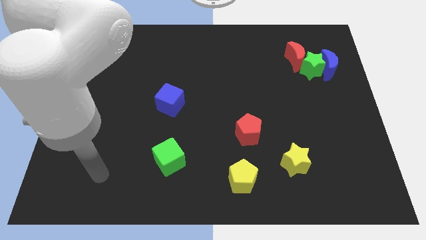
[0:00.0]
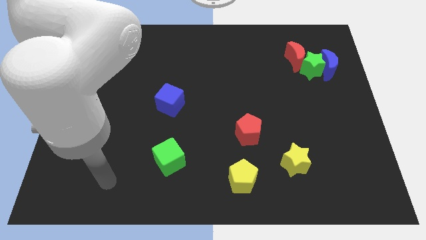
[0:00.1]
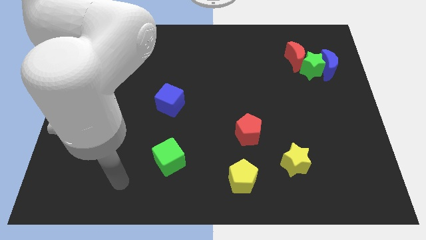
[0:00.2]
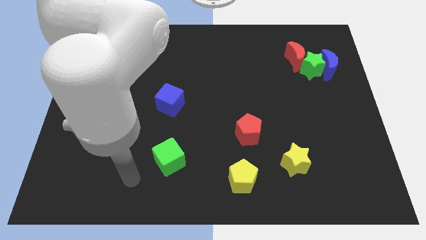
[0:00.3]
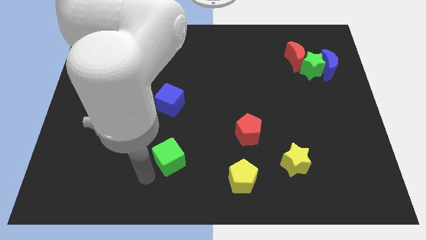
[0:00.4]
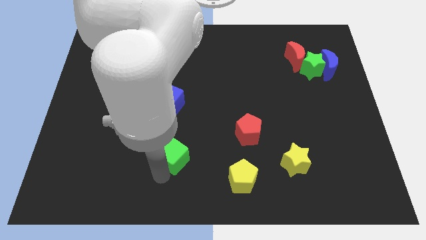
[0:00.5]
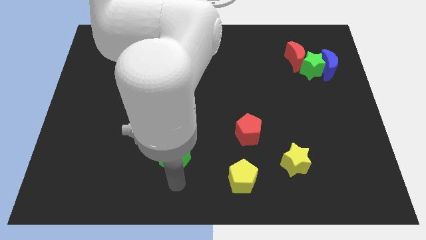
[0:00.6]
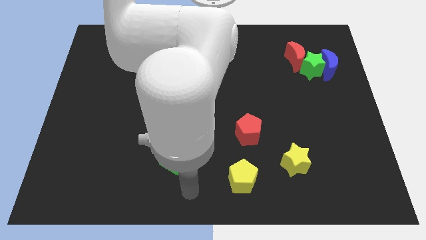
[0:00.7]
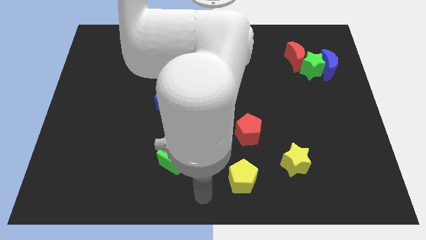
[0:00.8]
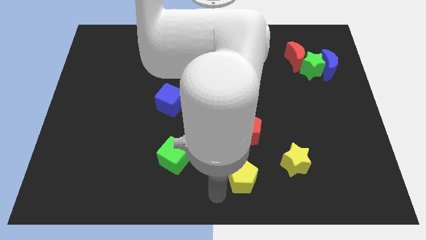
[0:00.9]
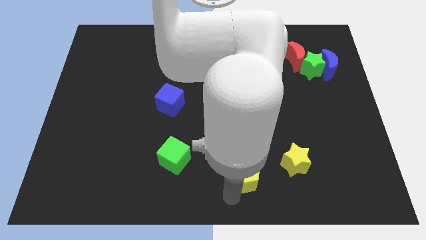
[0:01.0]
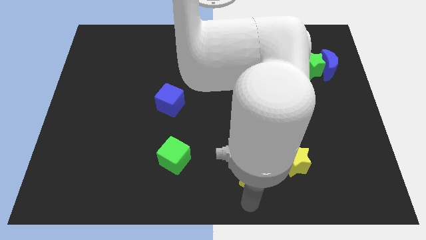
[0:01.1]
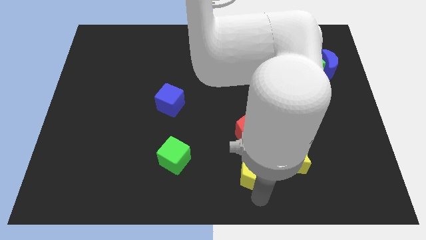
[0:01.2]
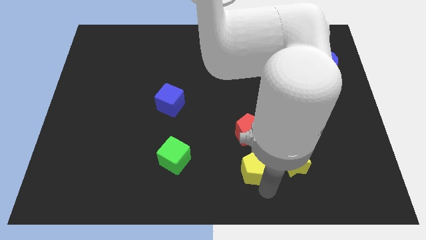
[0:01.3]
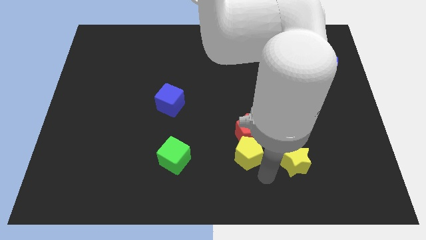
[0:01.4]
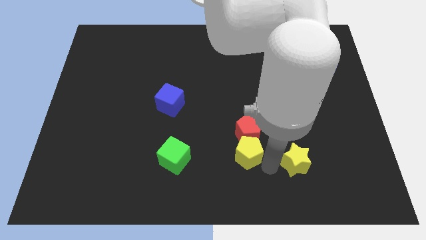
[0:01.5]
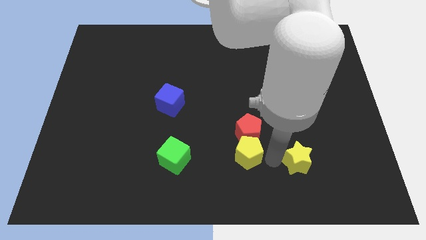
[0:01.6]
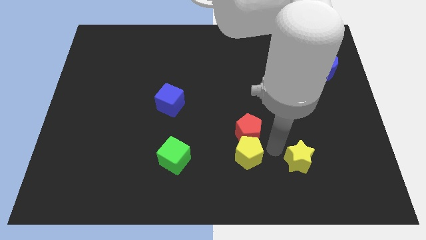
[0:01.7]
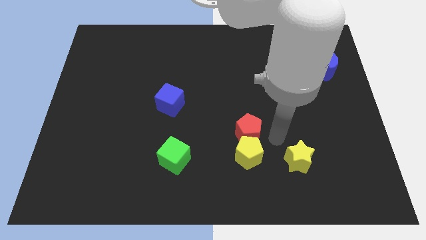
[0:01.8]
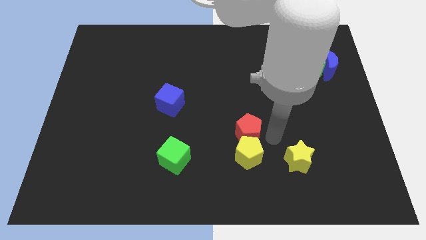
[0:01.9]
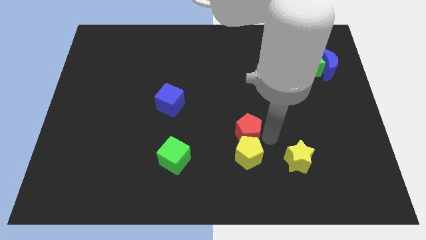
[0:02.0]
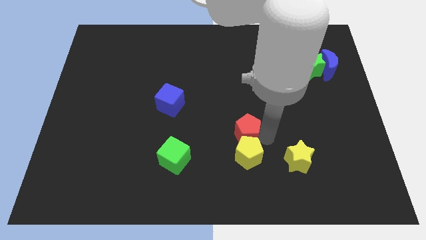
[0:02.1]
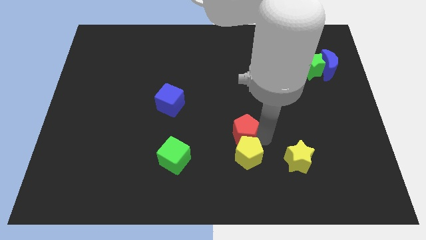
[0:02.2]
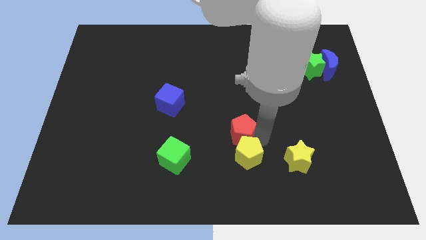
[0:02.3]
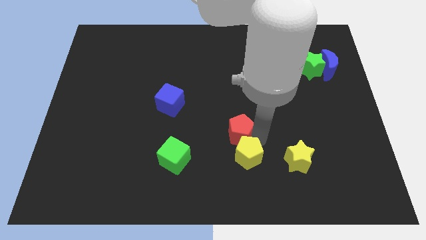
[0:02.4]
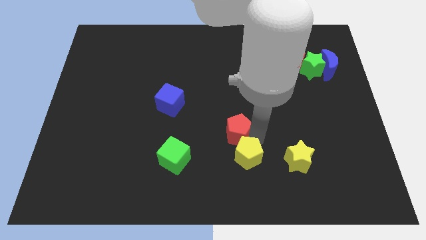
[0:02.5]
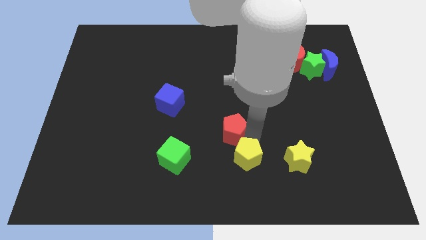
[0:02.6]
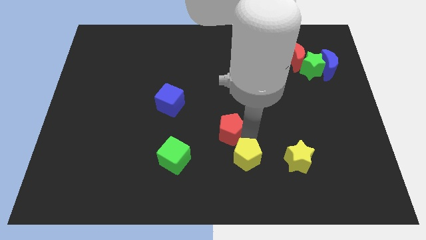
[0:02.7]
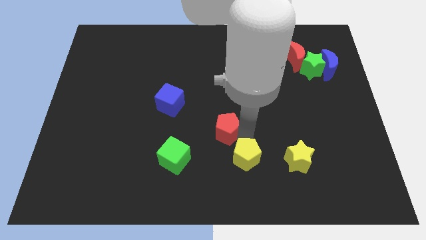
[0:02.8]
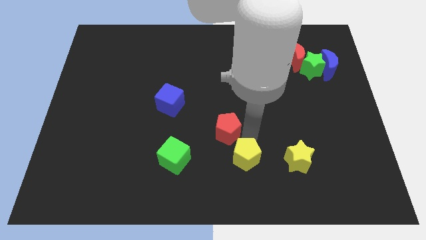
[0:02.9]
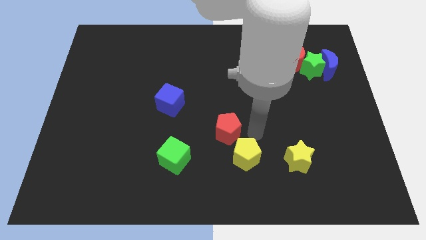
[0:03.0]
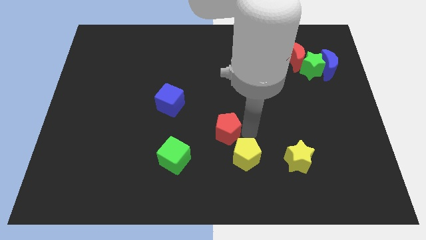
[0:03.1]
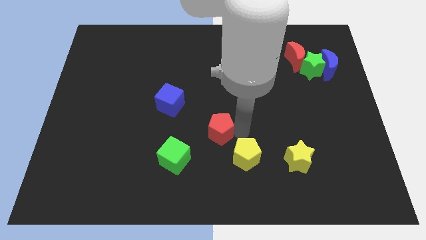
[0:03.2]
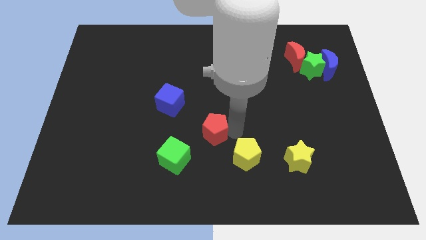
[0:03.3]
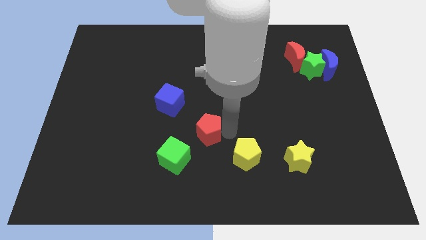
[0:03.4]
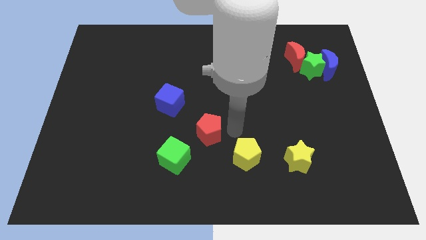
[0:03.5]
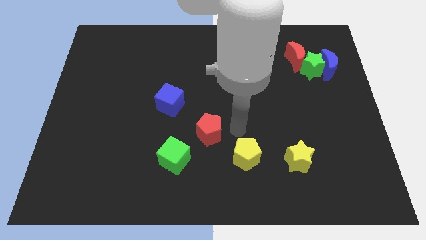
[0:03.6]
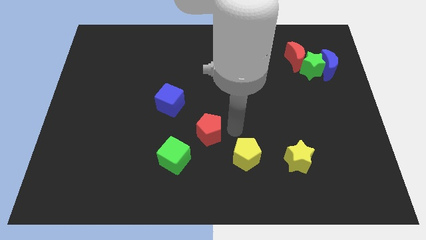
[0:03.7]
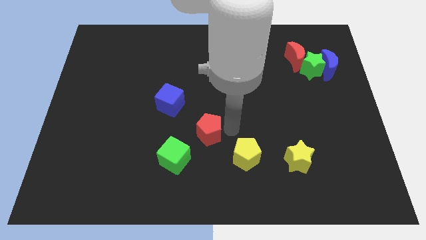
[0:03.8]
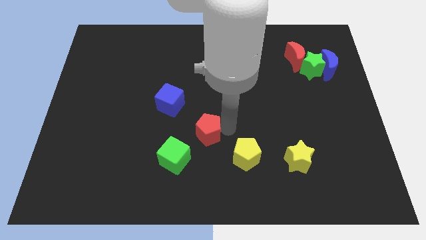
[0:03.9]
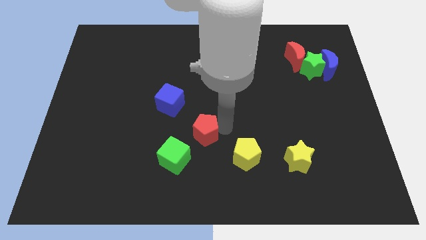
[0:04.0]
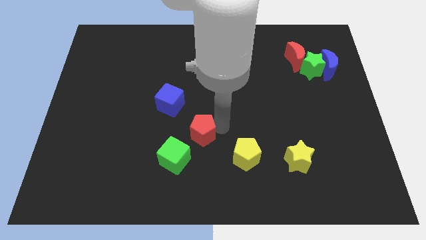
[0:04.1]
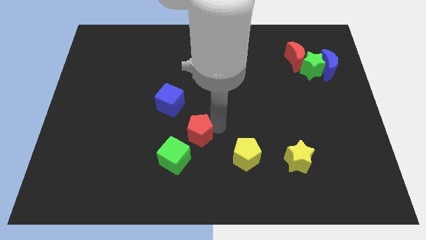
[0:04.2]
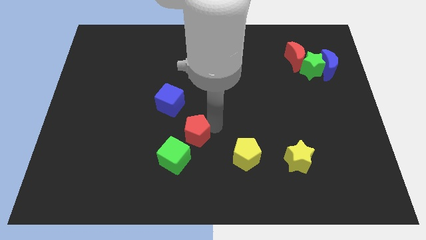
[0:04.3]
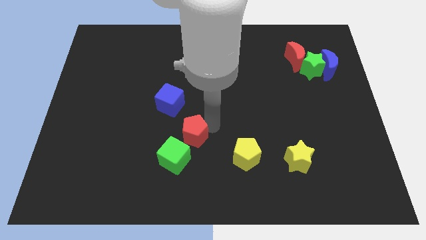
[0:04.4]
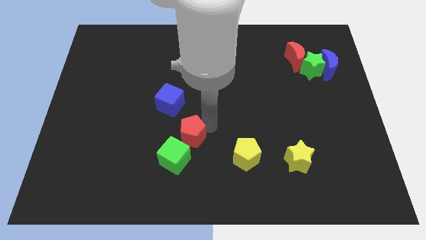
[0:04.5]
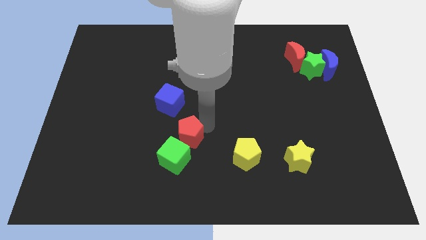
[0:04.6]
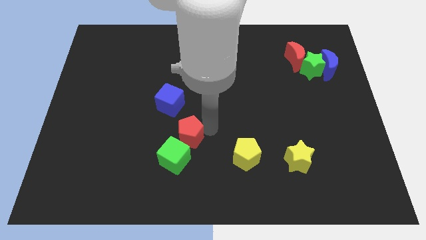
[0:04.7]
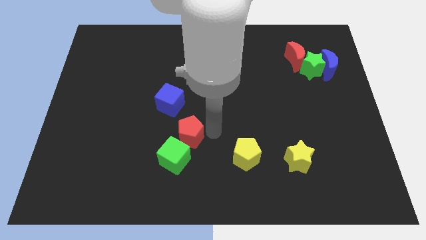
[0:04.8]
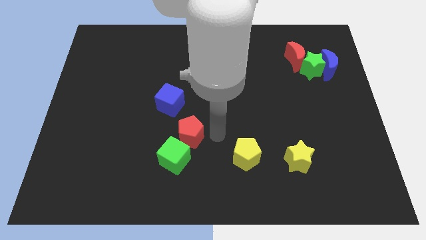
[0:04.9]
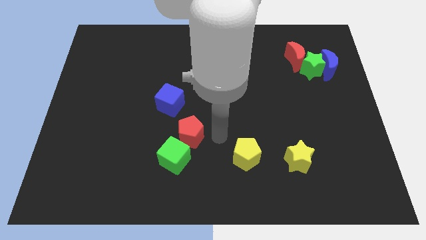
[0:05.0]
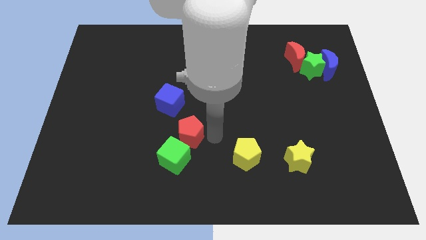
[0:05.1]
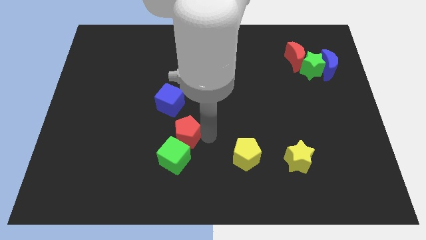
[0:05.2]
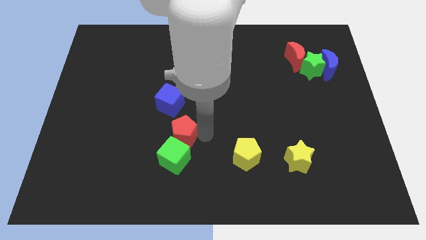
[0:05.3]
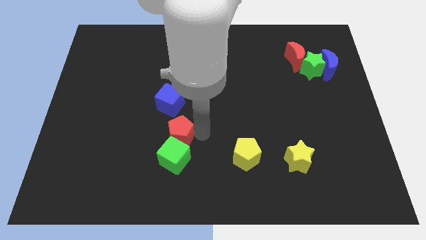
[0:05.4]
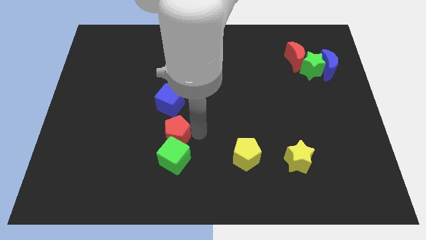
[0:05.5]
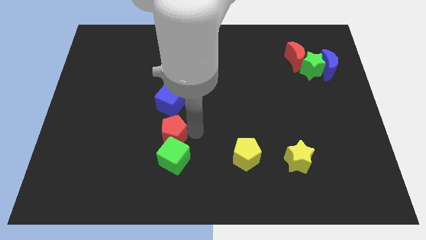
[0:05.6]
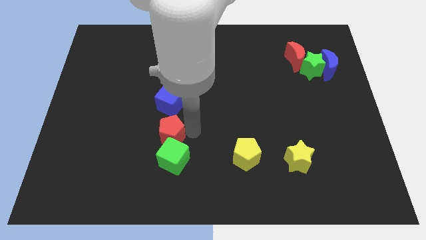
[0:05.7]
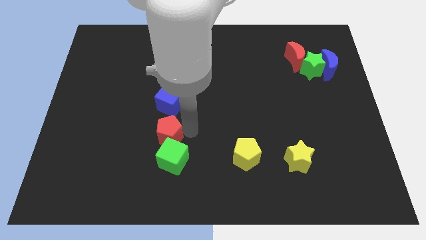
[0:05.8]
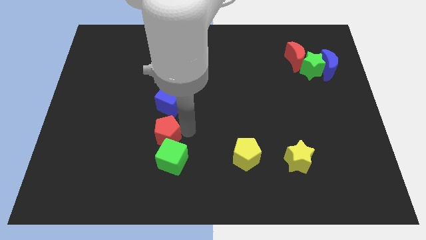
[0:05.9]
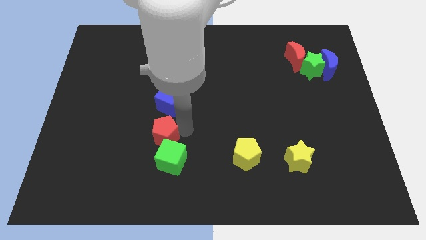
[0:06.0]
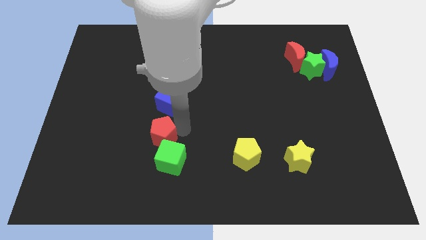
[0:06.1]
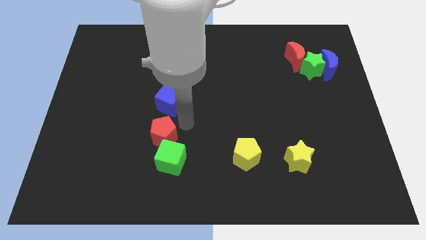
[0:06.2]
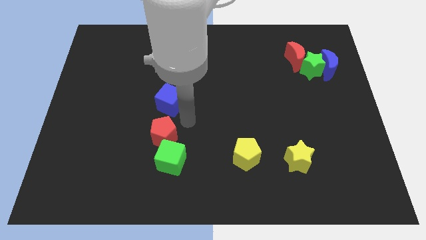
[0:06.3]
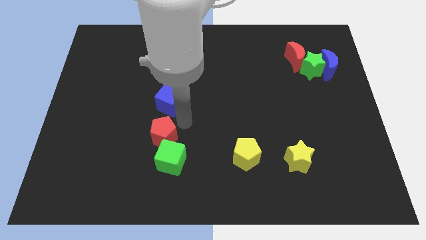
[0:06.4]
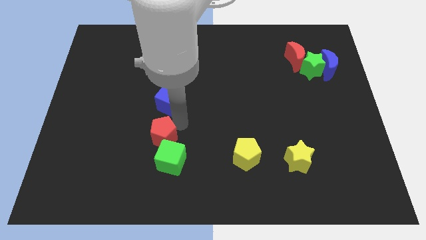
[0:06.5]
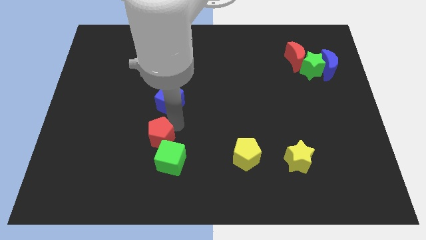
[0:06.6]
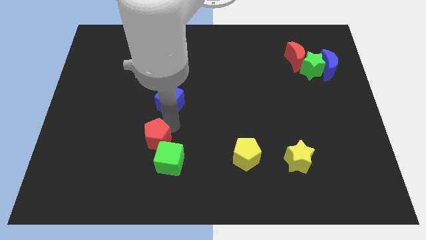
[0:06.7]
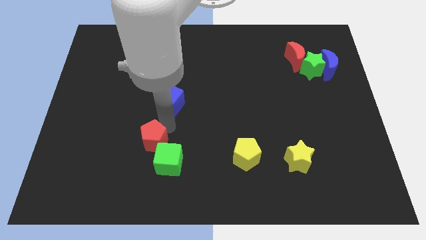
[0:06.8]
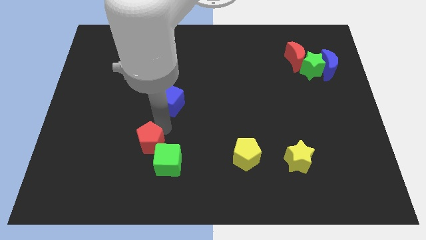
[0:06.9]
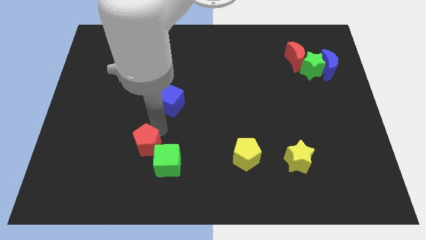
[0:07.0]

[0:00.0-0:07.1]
slide the red pentagon to the left of the green cube

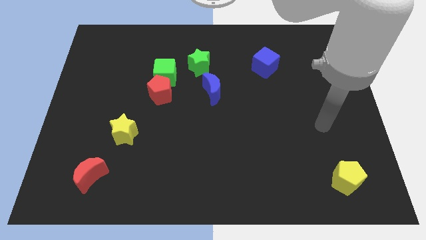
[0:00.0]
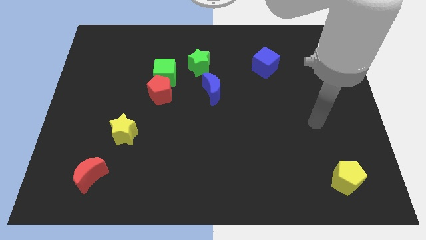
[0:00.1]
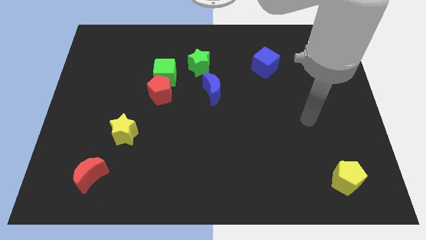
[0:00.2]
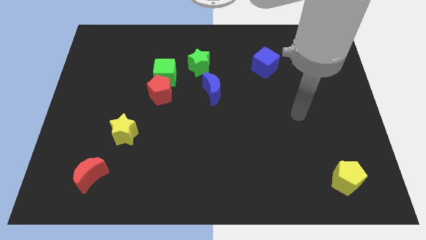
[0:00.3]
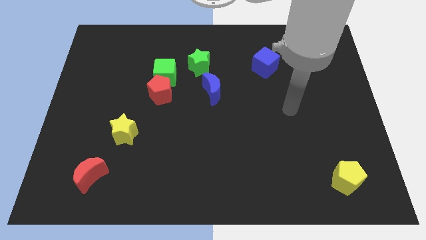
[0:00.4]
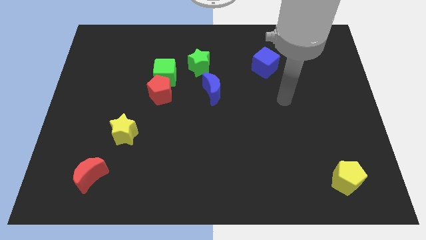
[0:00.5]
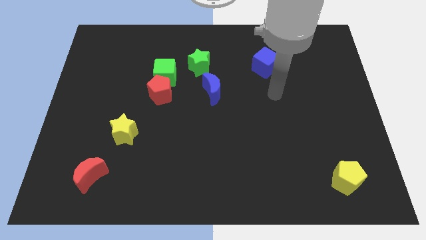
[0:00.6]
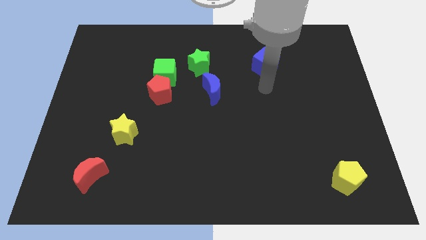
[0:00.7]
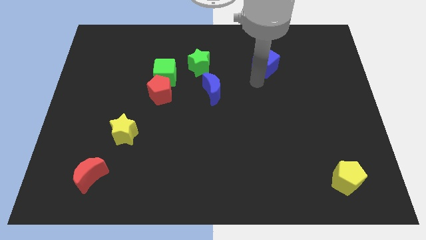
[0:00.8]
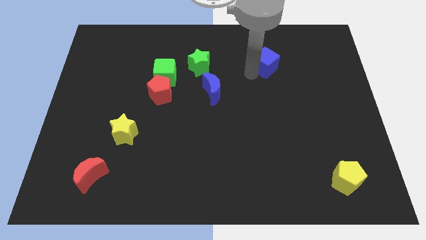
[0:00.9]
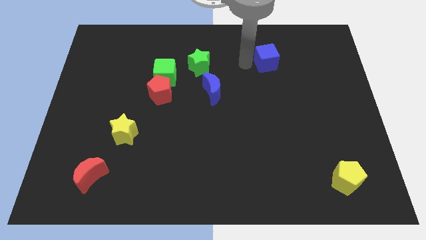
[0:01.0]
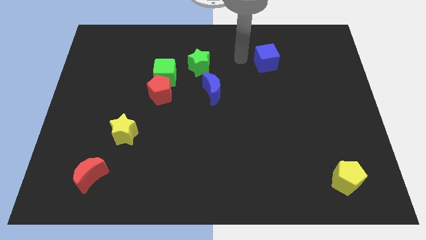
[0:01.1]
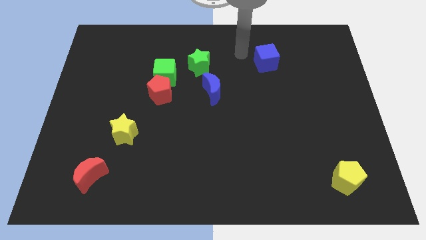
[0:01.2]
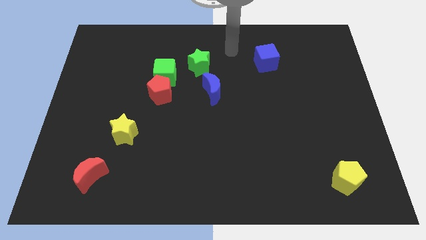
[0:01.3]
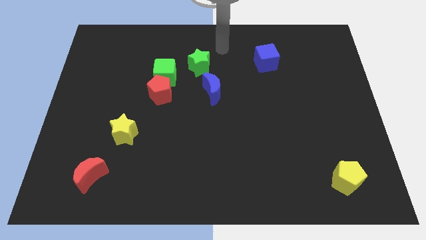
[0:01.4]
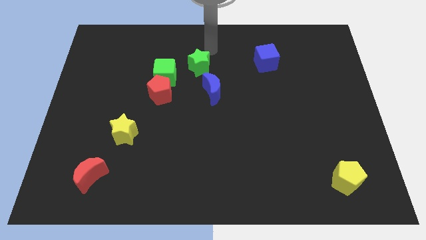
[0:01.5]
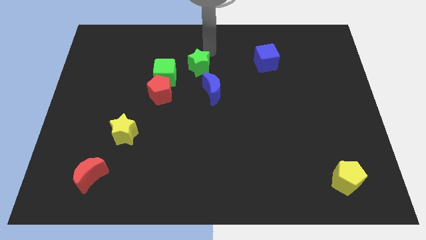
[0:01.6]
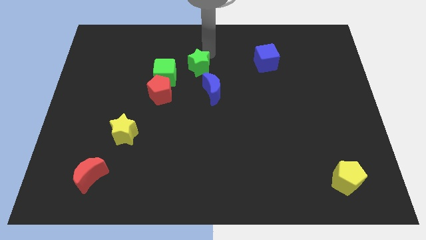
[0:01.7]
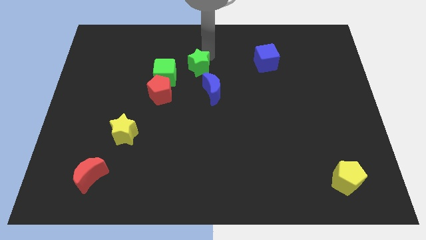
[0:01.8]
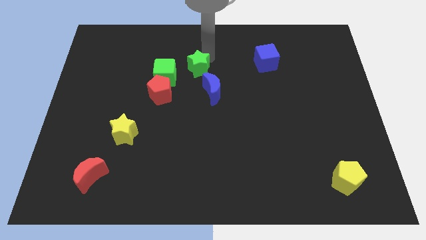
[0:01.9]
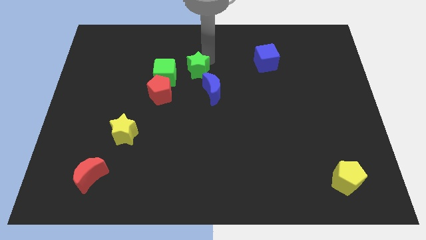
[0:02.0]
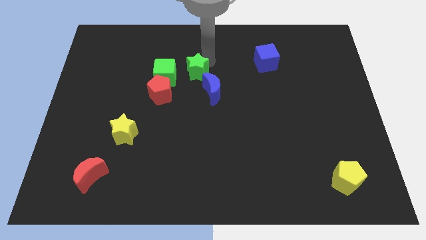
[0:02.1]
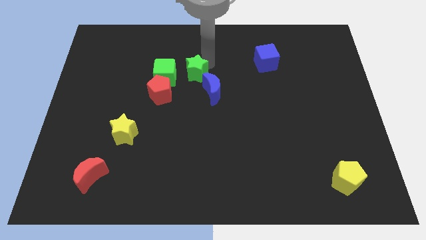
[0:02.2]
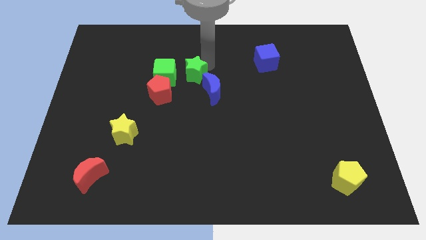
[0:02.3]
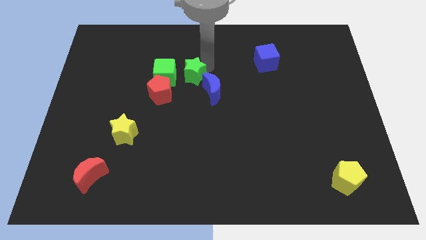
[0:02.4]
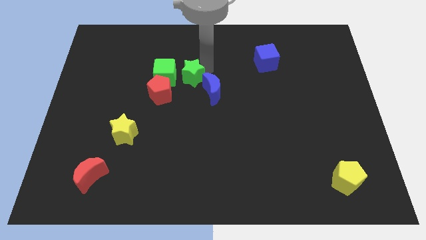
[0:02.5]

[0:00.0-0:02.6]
put the green star diagonally down and to the right of the green cube
